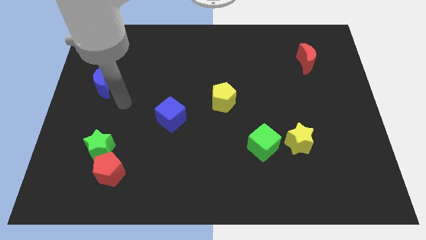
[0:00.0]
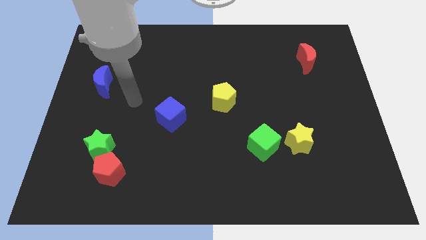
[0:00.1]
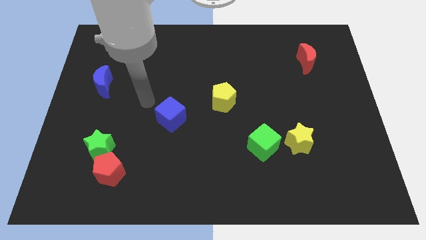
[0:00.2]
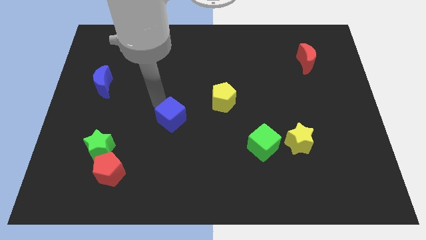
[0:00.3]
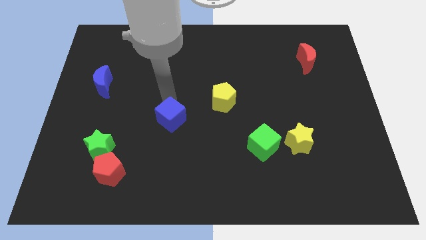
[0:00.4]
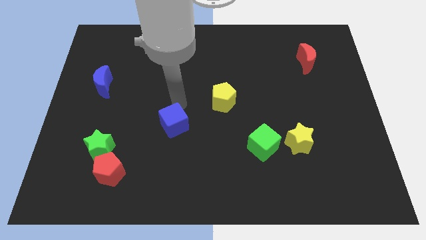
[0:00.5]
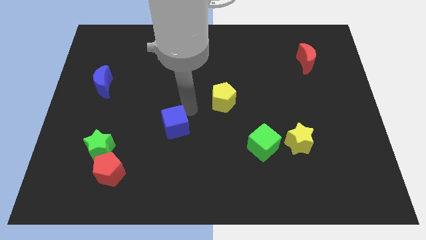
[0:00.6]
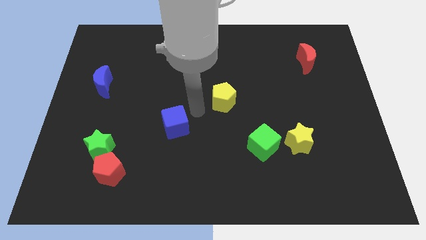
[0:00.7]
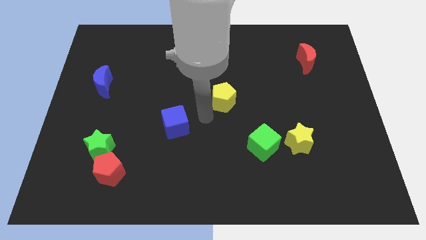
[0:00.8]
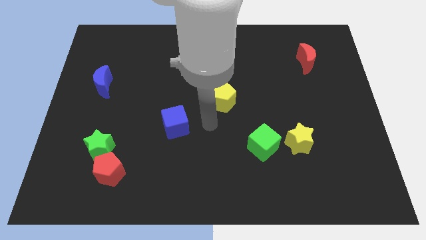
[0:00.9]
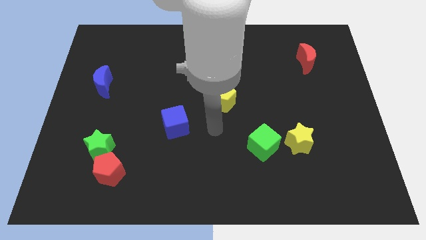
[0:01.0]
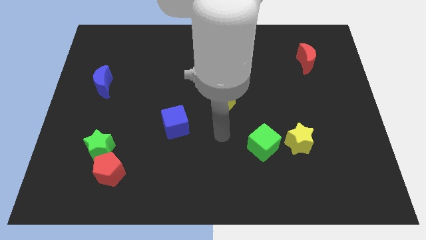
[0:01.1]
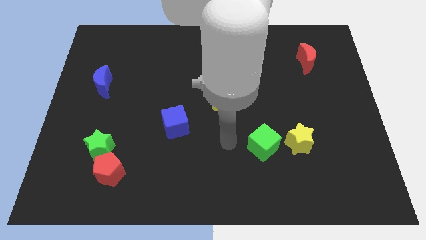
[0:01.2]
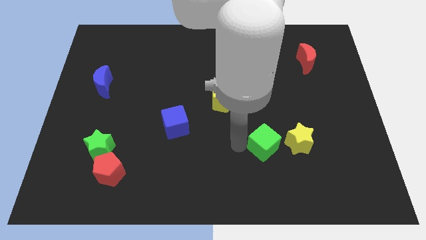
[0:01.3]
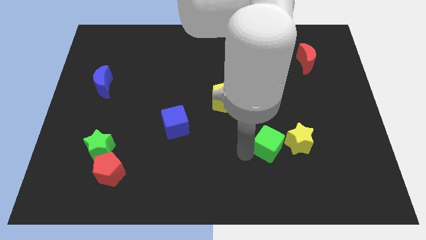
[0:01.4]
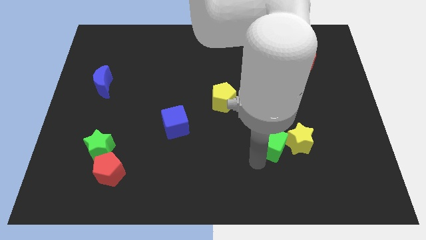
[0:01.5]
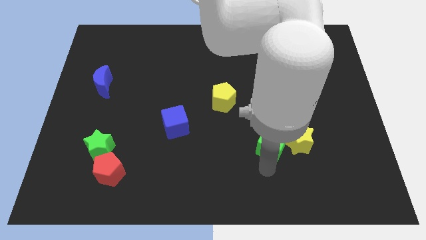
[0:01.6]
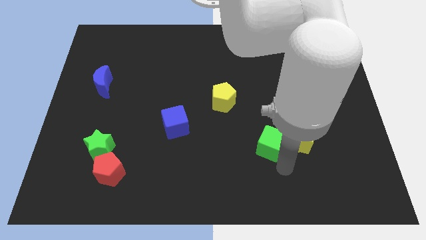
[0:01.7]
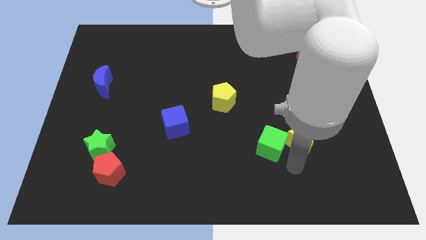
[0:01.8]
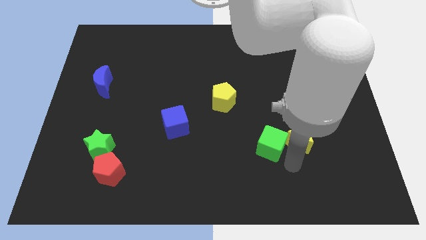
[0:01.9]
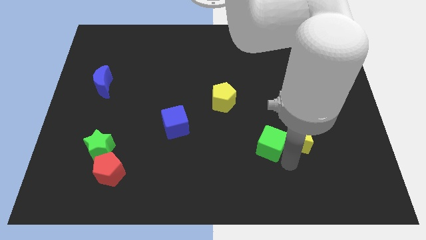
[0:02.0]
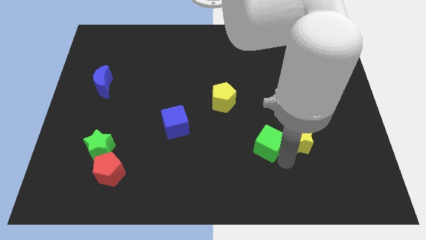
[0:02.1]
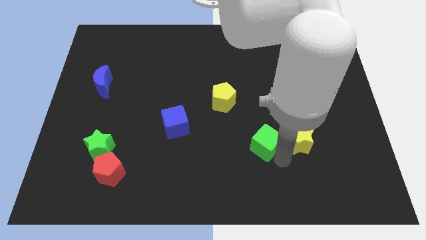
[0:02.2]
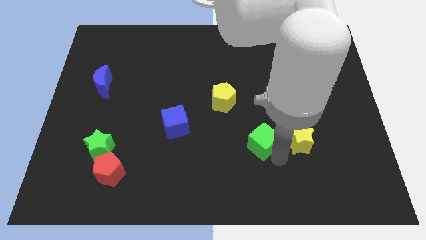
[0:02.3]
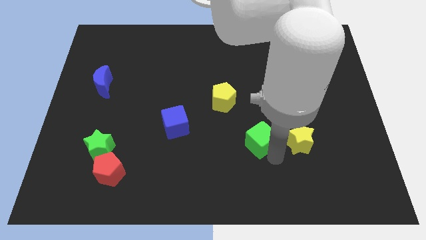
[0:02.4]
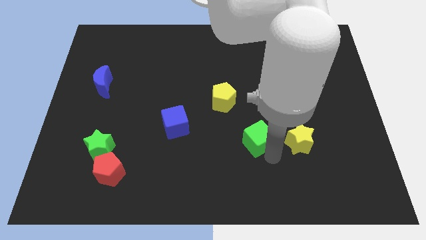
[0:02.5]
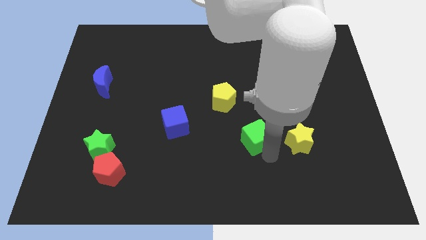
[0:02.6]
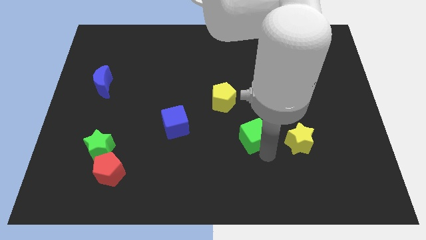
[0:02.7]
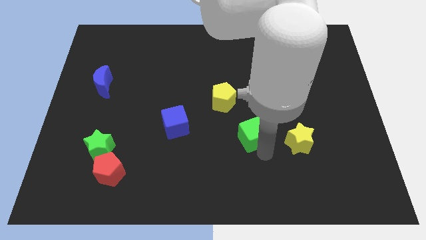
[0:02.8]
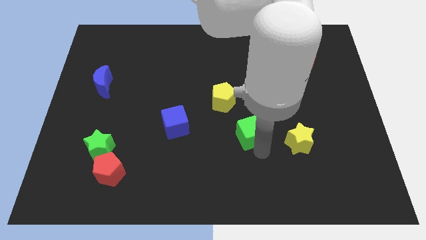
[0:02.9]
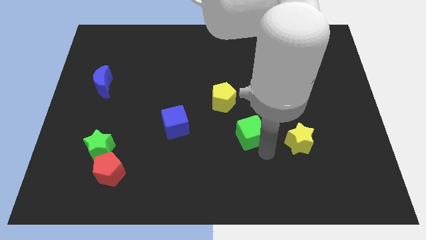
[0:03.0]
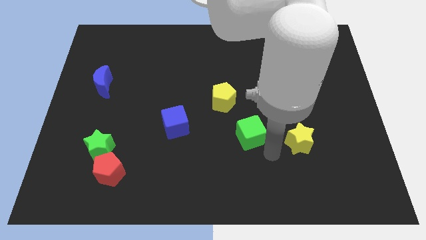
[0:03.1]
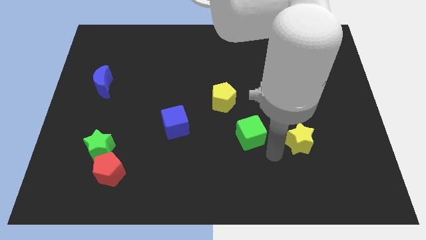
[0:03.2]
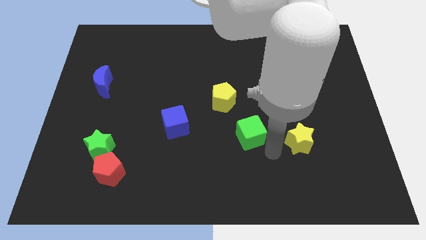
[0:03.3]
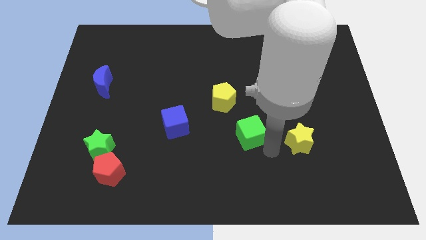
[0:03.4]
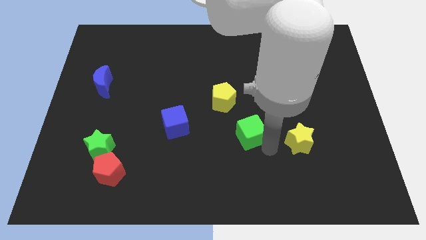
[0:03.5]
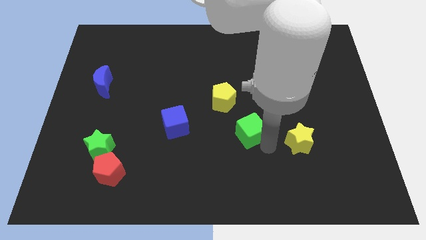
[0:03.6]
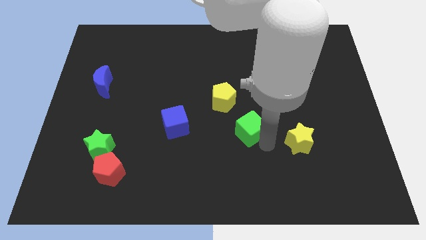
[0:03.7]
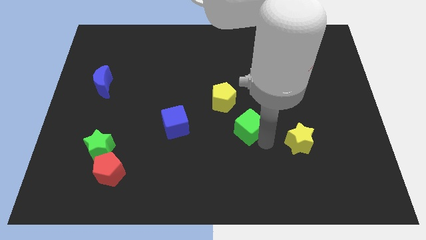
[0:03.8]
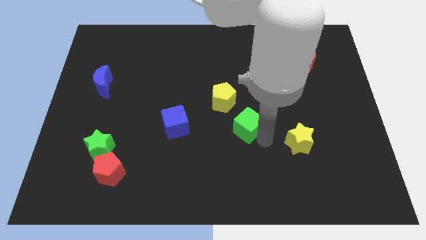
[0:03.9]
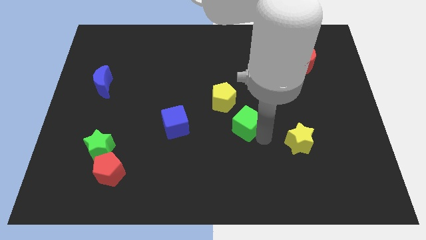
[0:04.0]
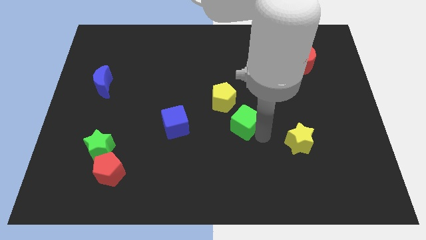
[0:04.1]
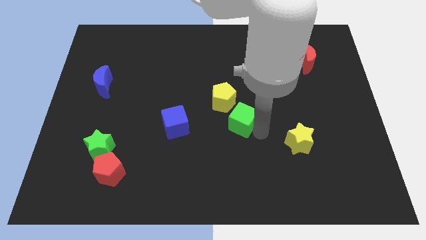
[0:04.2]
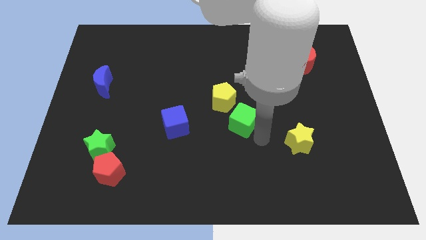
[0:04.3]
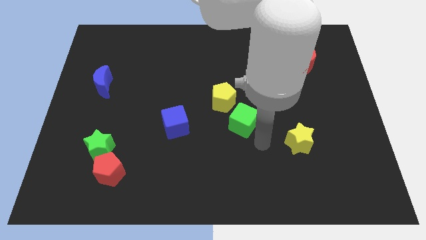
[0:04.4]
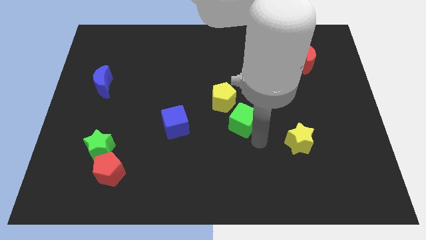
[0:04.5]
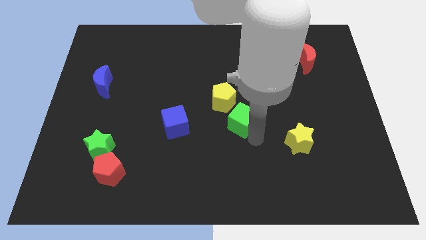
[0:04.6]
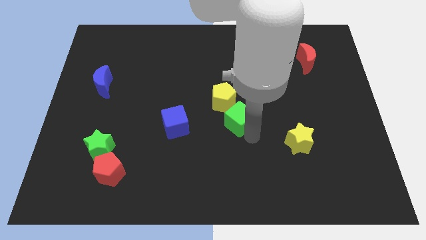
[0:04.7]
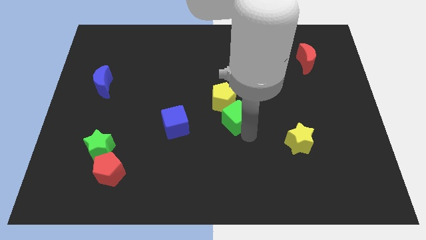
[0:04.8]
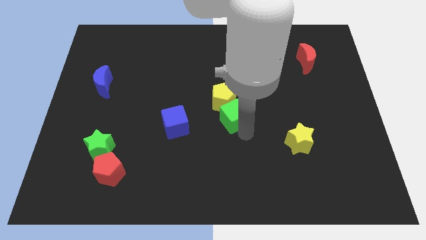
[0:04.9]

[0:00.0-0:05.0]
slide the green cube next to the yellow pentagon

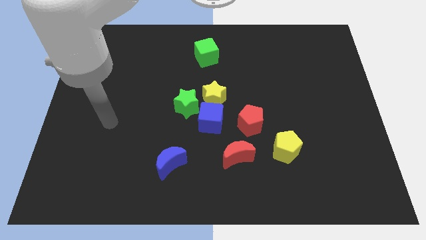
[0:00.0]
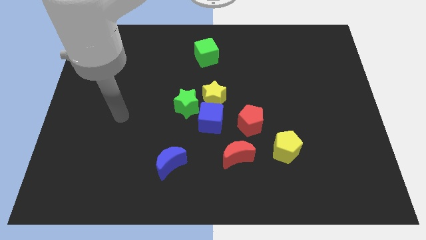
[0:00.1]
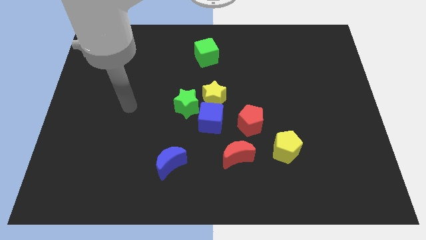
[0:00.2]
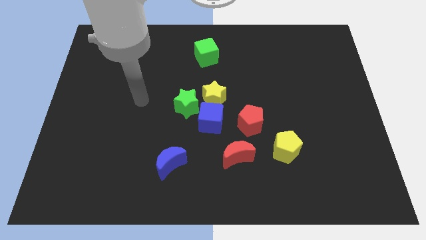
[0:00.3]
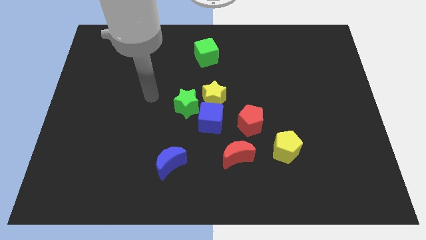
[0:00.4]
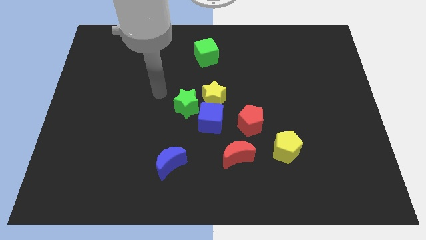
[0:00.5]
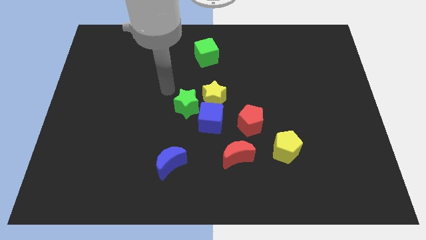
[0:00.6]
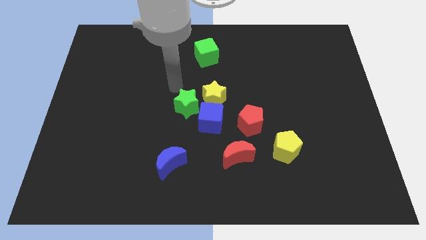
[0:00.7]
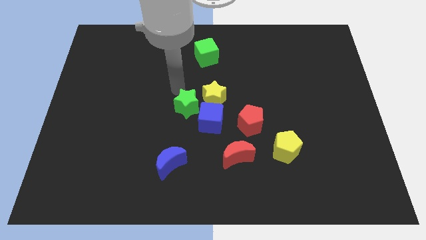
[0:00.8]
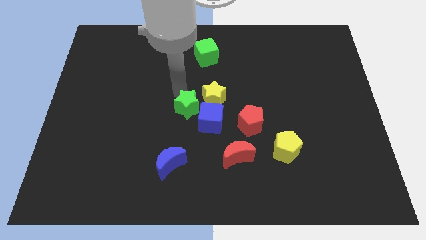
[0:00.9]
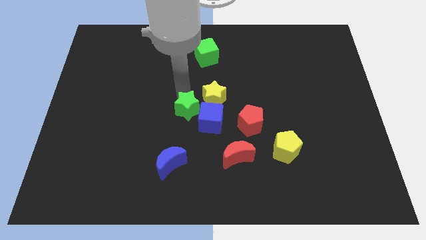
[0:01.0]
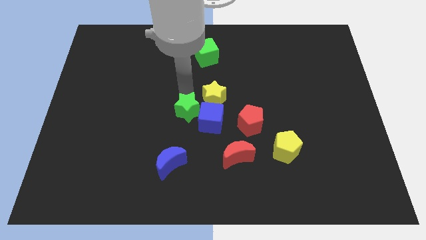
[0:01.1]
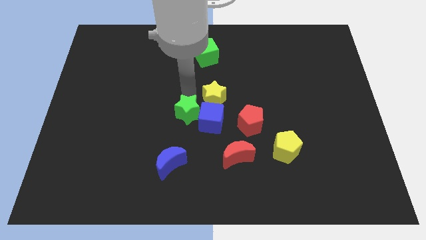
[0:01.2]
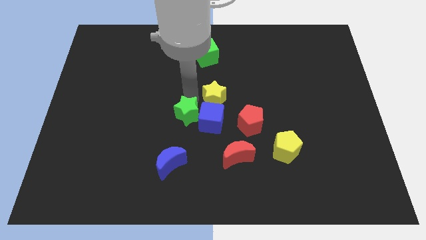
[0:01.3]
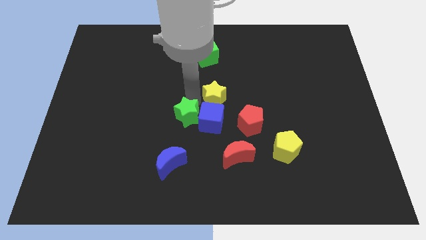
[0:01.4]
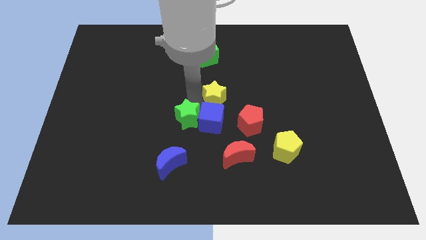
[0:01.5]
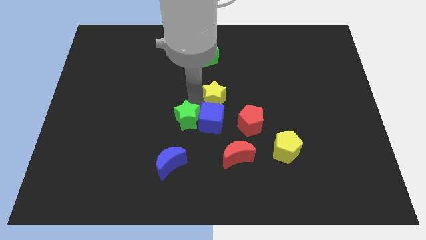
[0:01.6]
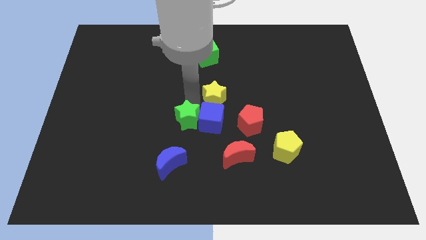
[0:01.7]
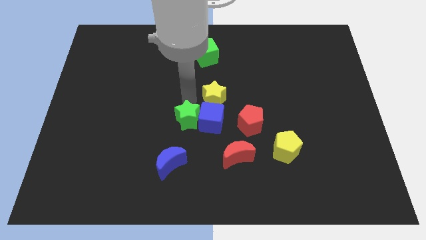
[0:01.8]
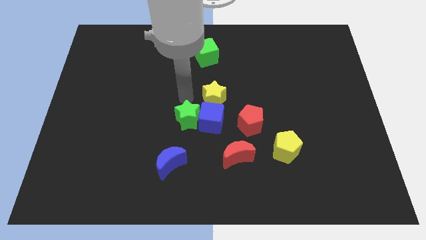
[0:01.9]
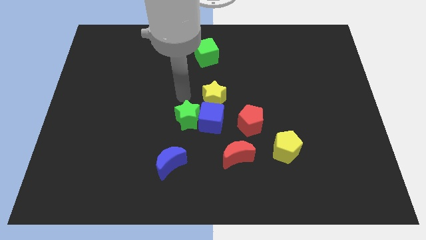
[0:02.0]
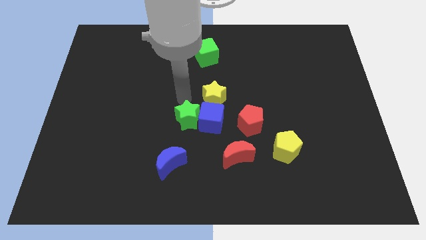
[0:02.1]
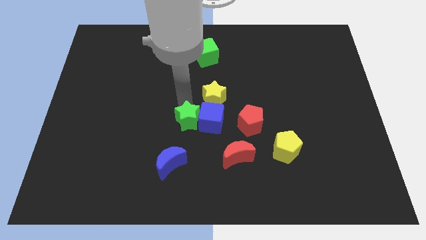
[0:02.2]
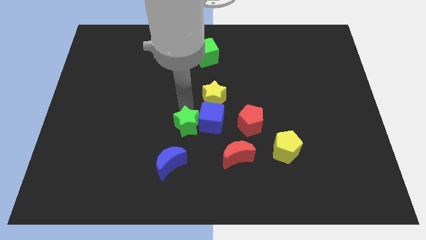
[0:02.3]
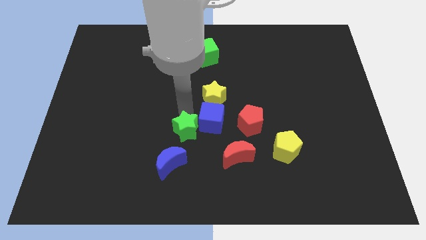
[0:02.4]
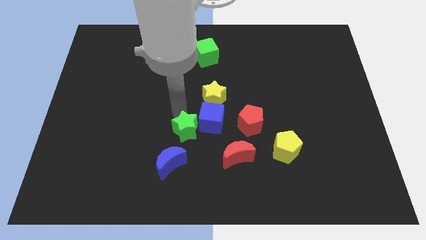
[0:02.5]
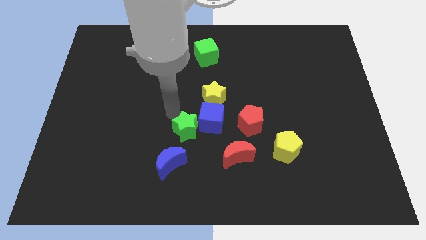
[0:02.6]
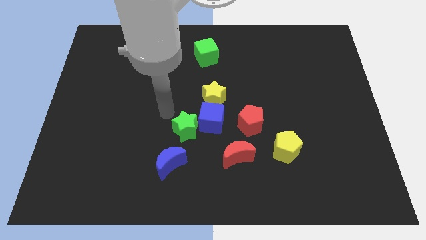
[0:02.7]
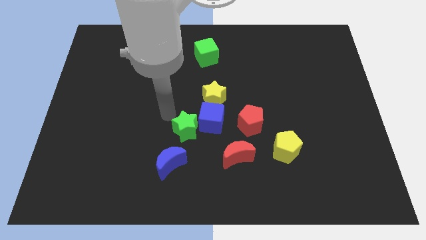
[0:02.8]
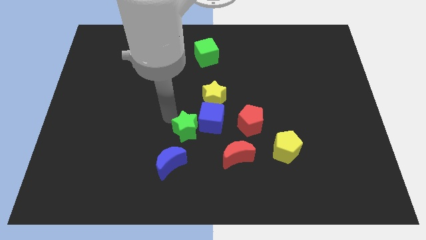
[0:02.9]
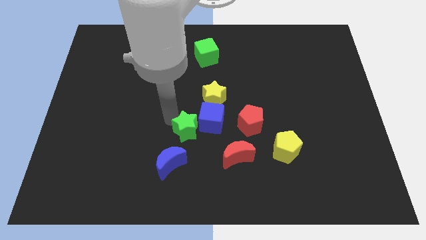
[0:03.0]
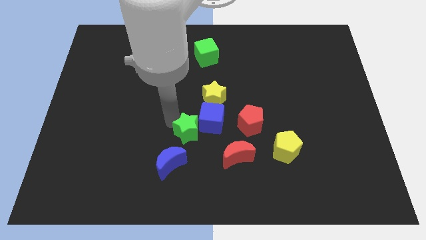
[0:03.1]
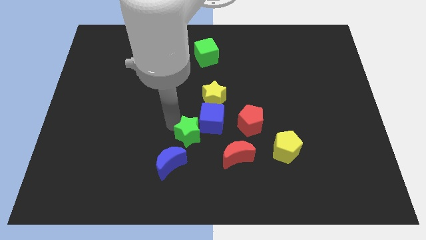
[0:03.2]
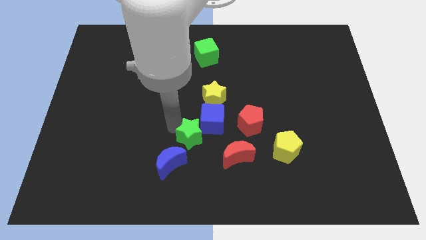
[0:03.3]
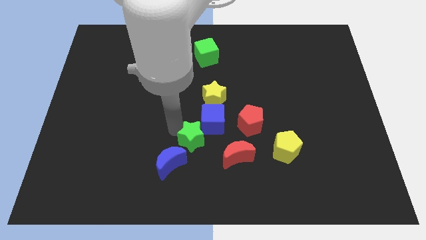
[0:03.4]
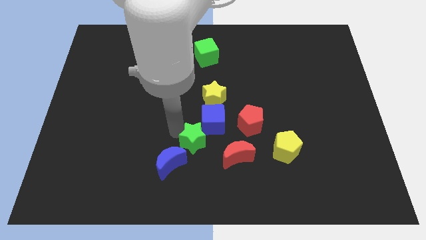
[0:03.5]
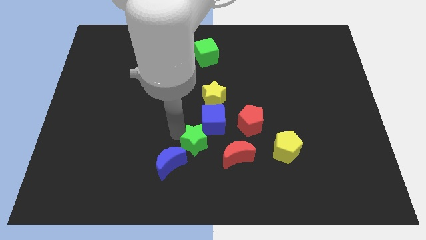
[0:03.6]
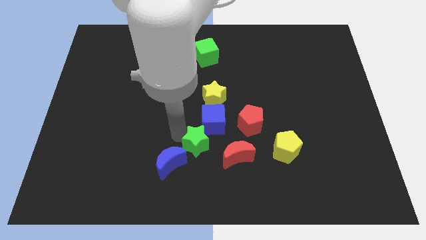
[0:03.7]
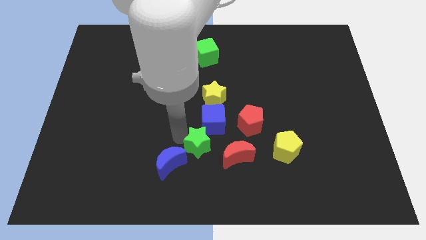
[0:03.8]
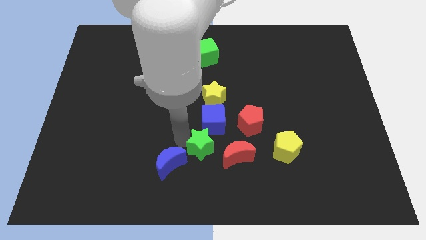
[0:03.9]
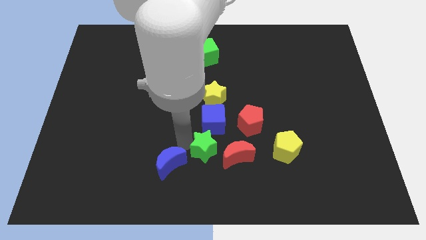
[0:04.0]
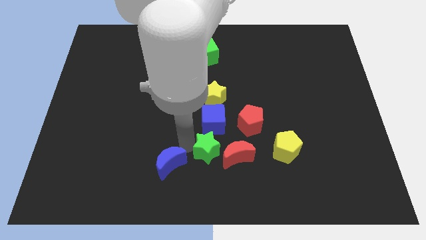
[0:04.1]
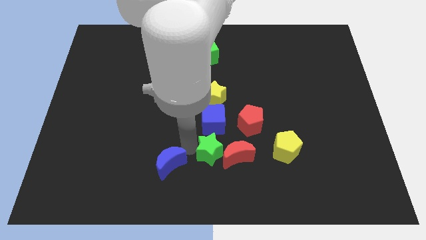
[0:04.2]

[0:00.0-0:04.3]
push the green star towards the red moon
